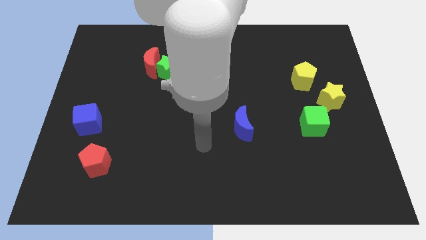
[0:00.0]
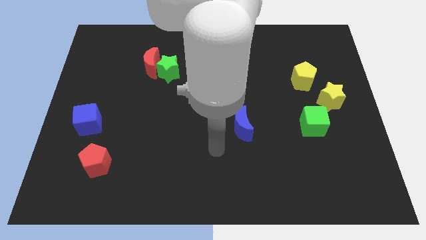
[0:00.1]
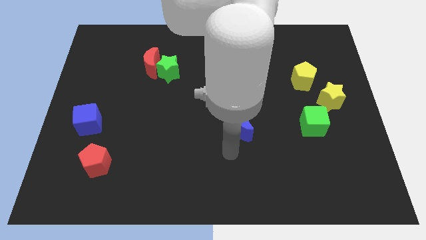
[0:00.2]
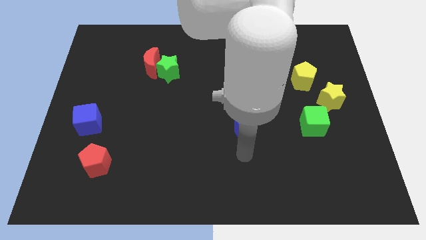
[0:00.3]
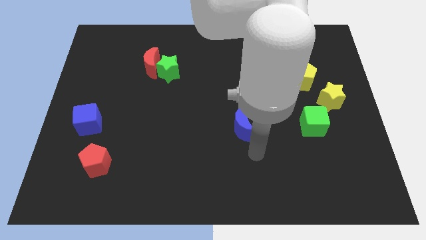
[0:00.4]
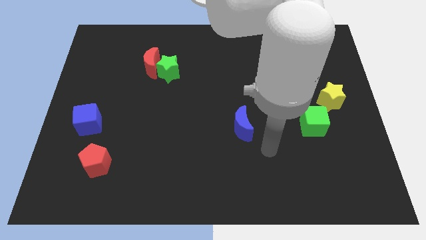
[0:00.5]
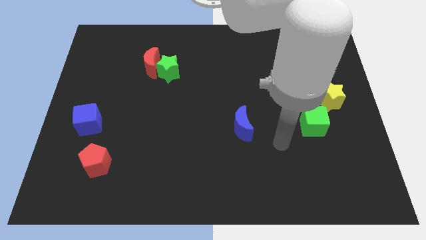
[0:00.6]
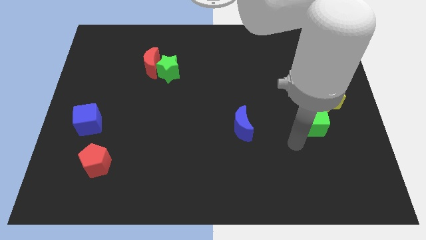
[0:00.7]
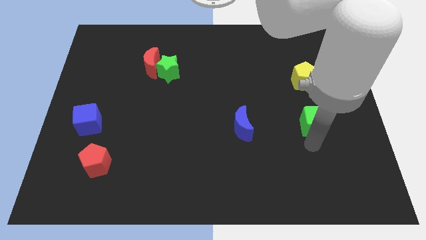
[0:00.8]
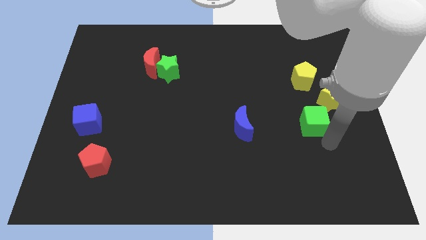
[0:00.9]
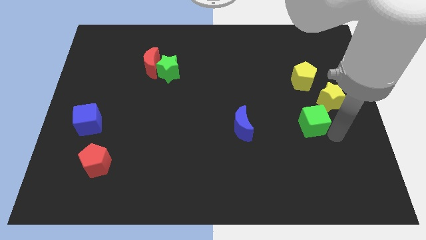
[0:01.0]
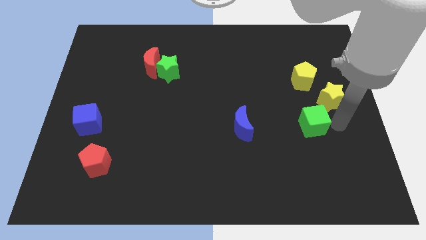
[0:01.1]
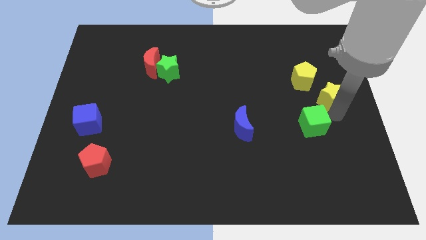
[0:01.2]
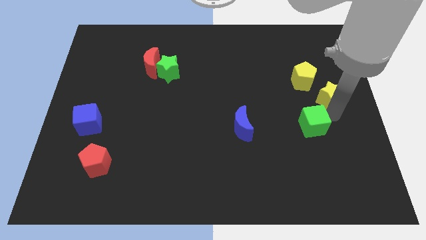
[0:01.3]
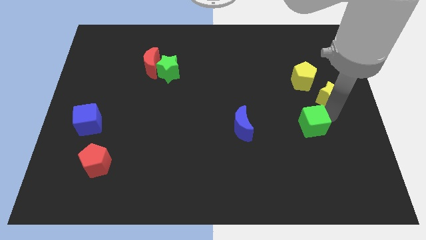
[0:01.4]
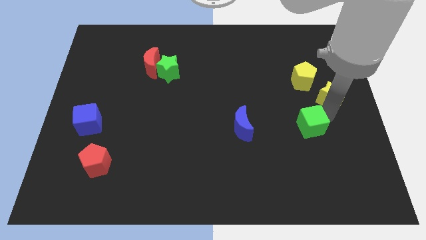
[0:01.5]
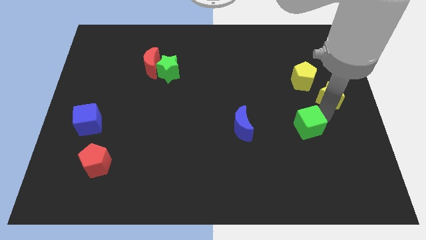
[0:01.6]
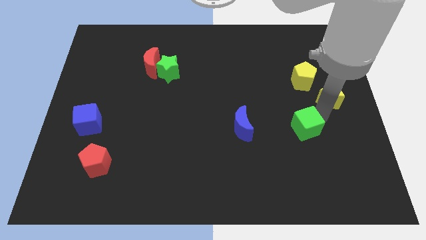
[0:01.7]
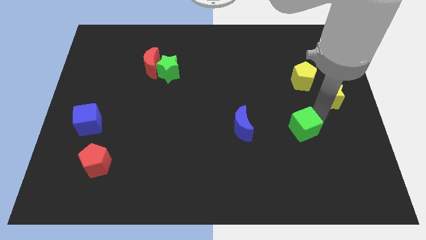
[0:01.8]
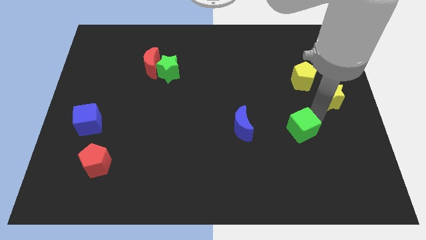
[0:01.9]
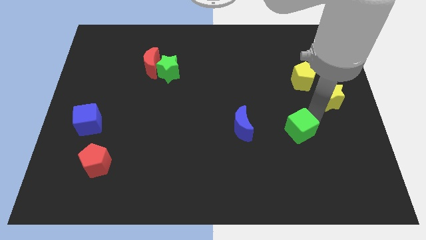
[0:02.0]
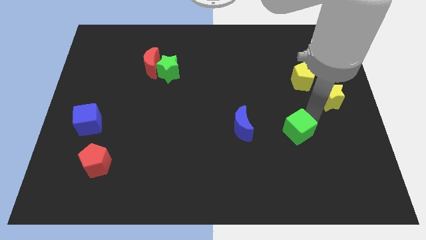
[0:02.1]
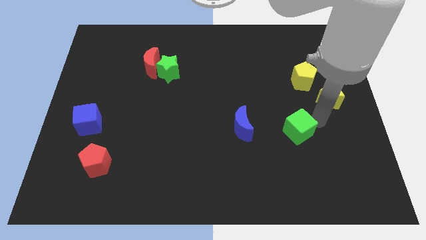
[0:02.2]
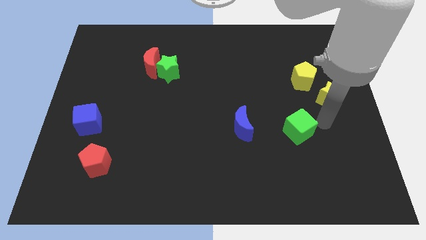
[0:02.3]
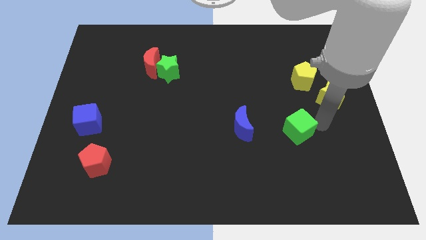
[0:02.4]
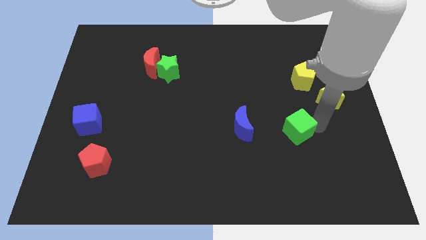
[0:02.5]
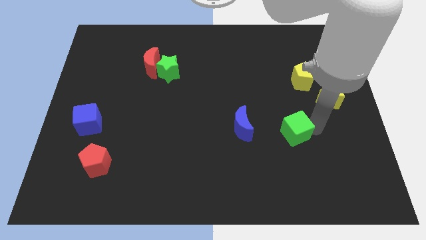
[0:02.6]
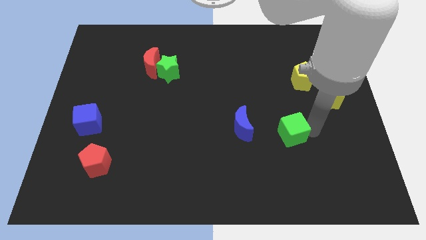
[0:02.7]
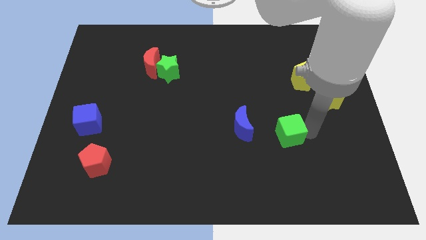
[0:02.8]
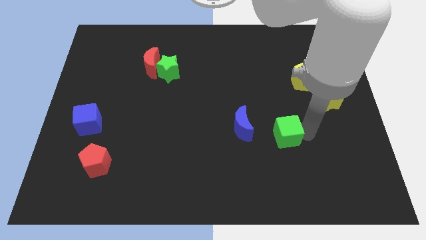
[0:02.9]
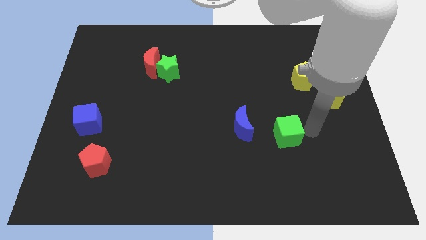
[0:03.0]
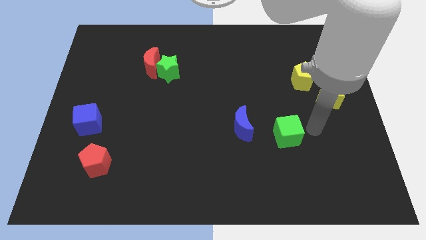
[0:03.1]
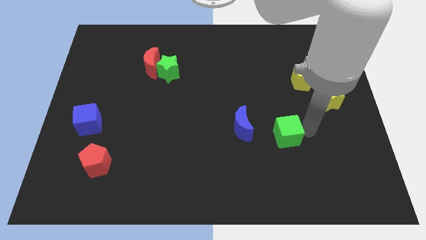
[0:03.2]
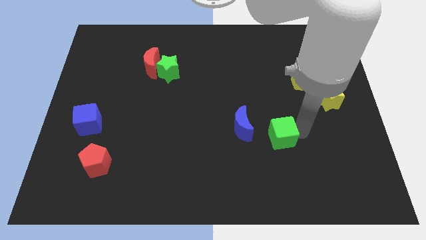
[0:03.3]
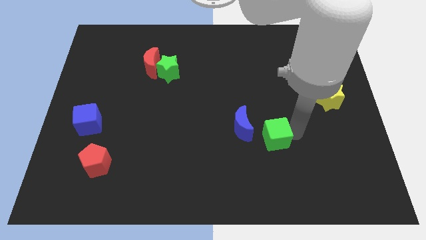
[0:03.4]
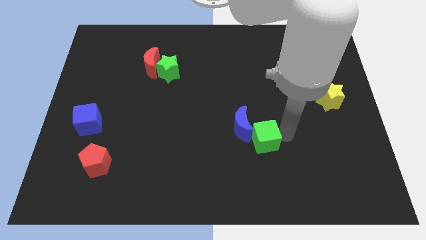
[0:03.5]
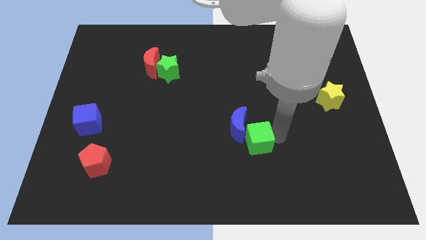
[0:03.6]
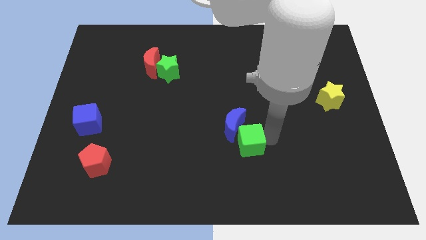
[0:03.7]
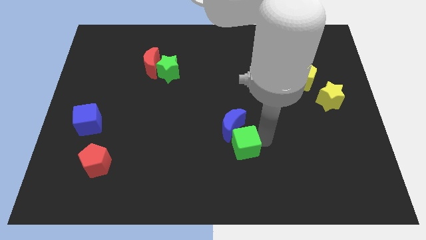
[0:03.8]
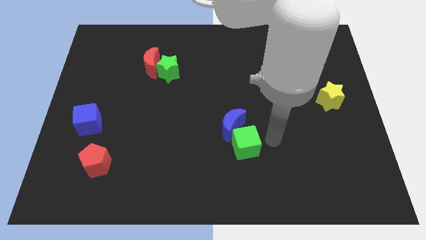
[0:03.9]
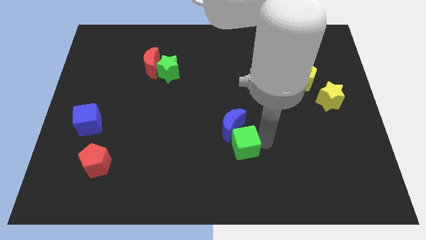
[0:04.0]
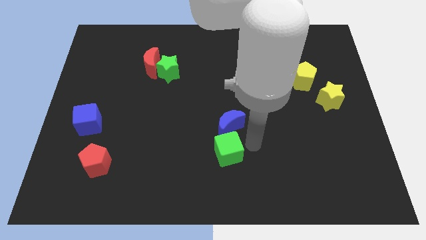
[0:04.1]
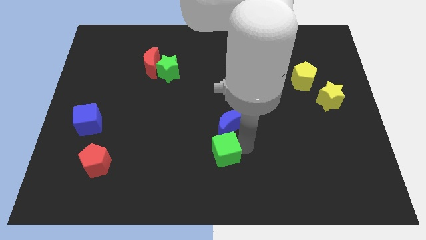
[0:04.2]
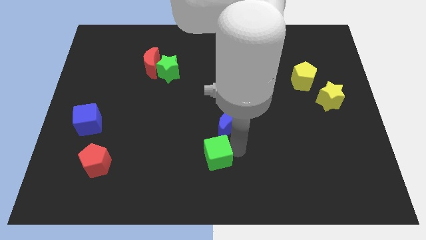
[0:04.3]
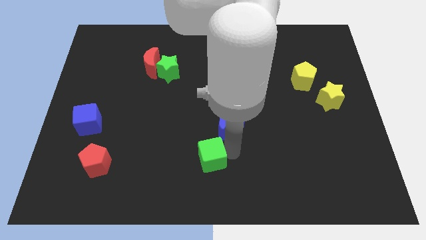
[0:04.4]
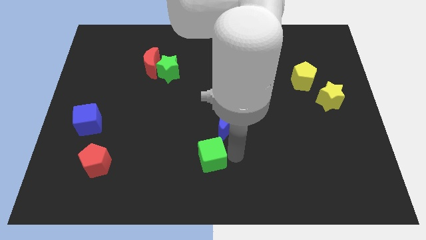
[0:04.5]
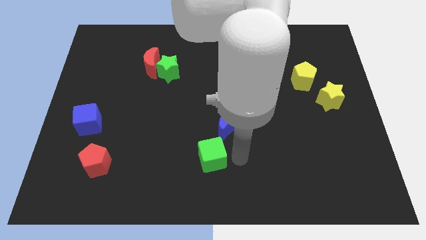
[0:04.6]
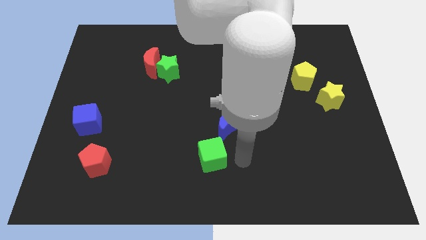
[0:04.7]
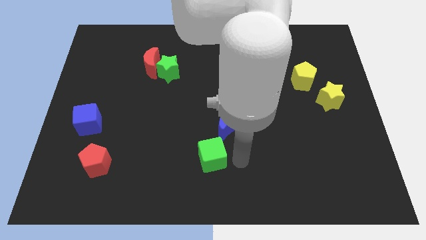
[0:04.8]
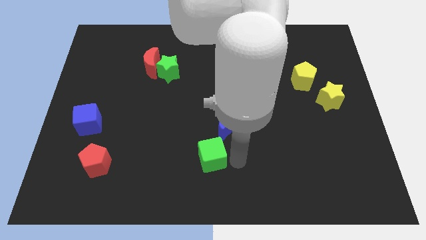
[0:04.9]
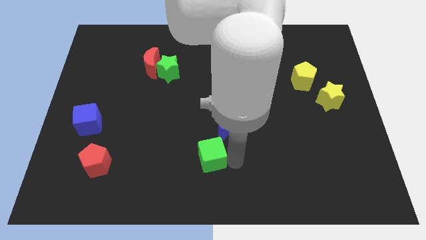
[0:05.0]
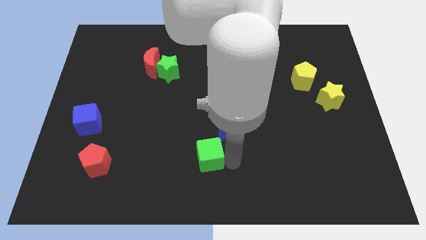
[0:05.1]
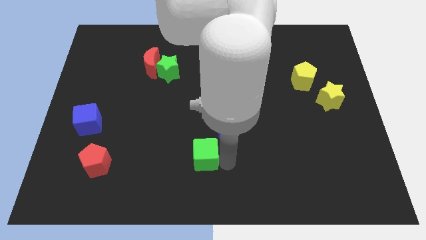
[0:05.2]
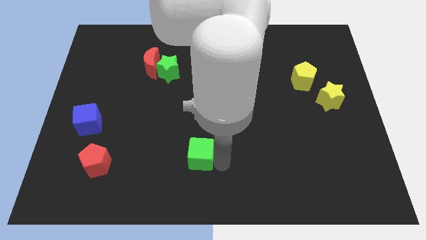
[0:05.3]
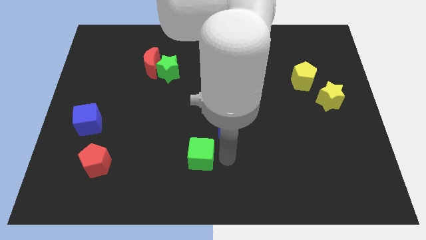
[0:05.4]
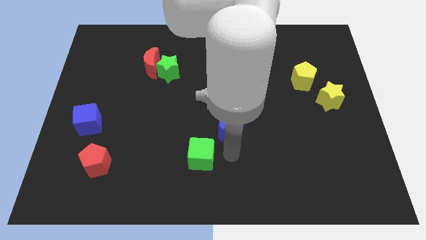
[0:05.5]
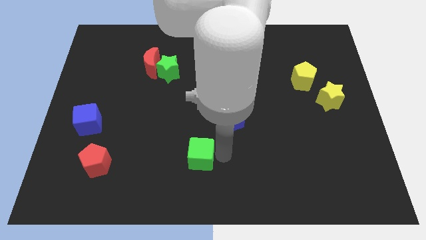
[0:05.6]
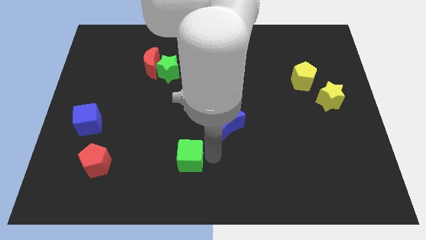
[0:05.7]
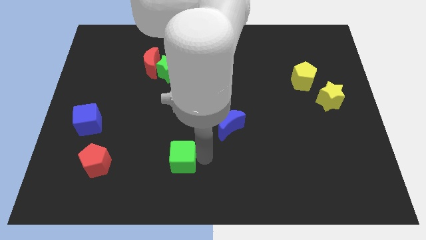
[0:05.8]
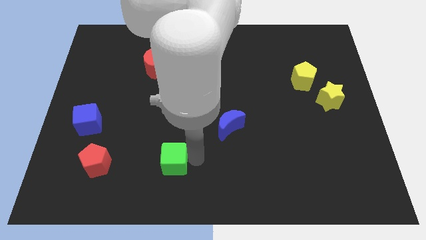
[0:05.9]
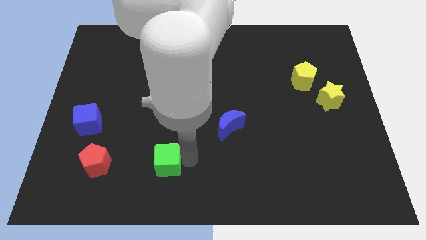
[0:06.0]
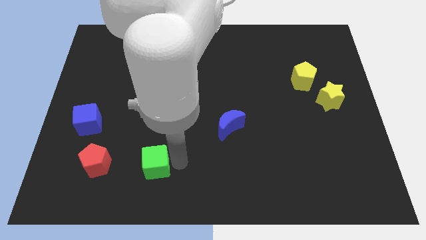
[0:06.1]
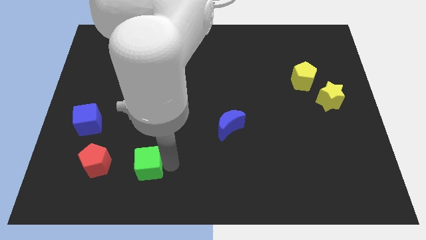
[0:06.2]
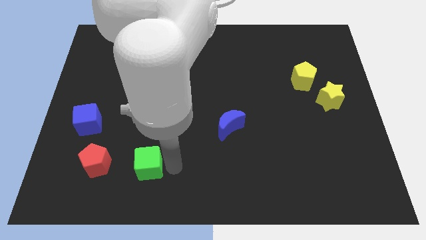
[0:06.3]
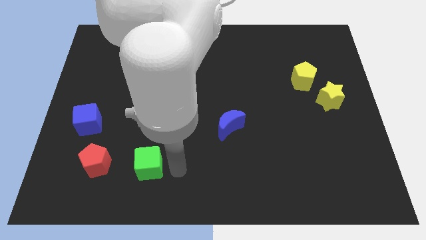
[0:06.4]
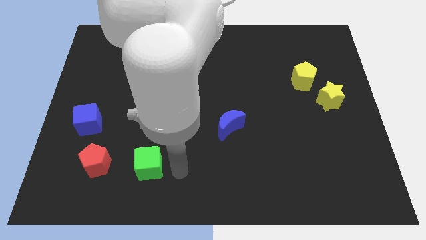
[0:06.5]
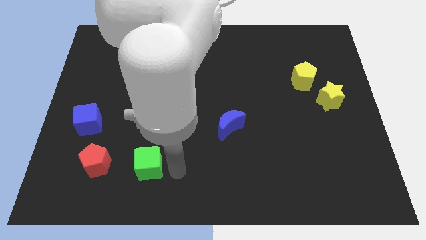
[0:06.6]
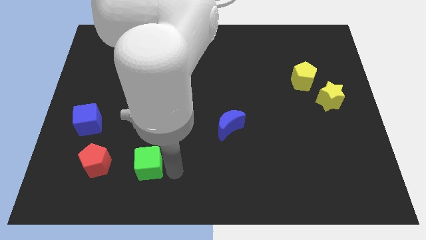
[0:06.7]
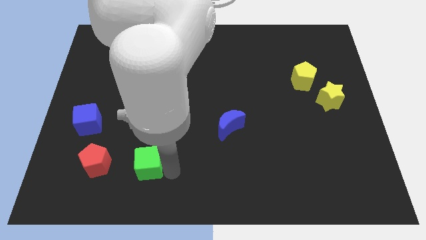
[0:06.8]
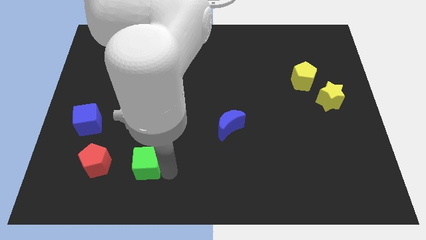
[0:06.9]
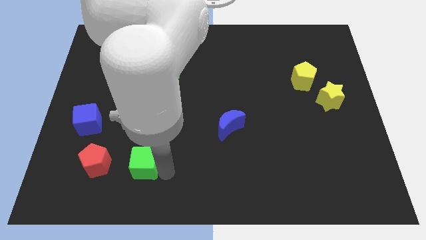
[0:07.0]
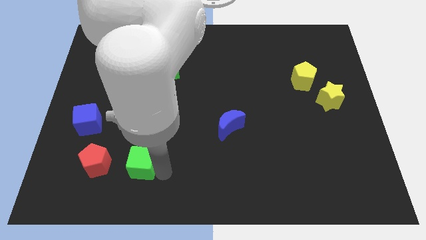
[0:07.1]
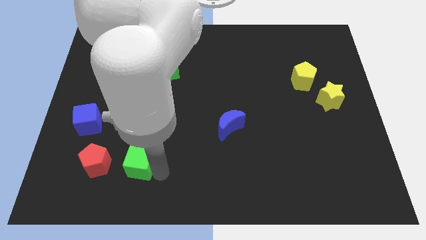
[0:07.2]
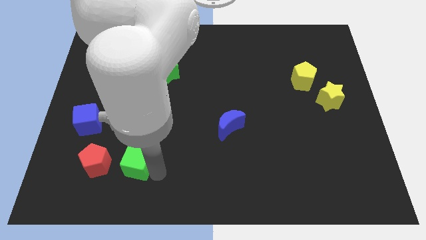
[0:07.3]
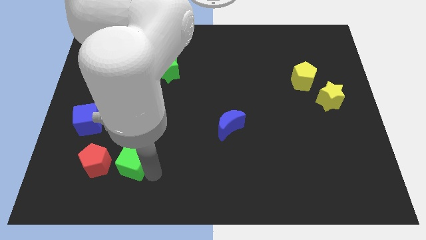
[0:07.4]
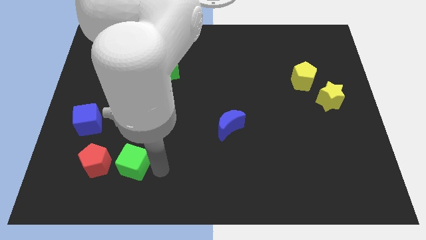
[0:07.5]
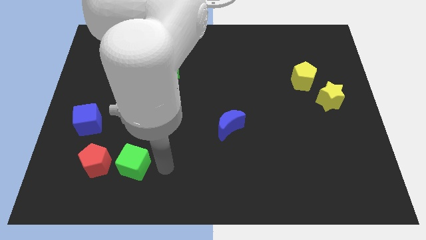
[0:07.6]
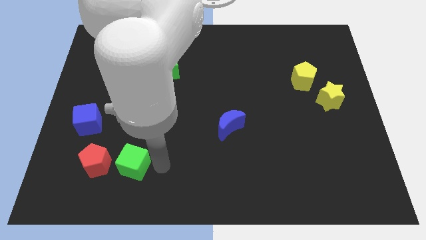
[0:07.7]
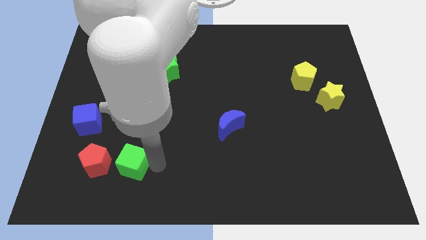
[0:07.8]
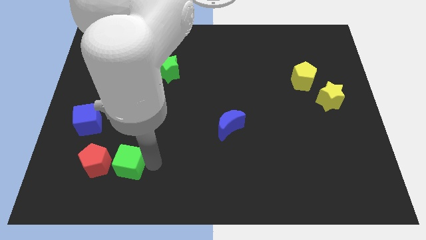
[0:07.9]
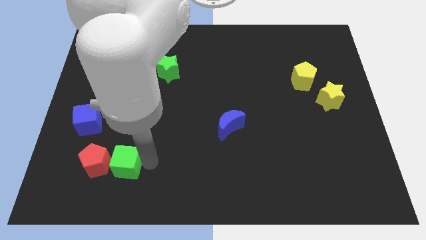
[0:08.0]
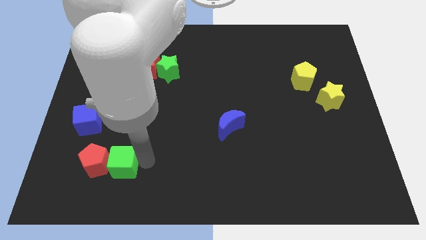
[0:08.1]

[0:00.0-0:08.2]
push the green cube towards the red pentagon
